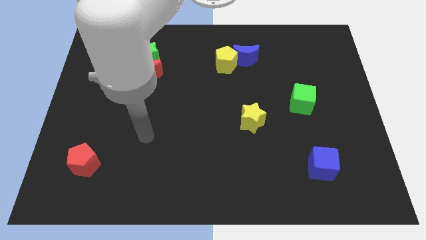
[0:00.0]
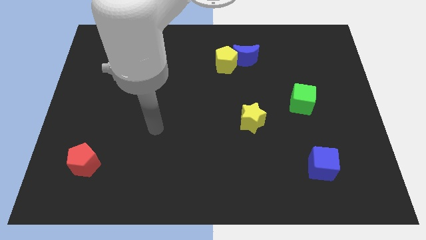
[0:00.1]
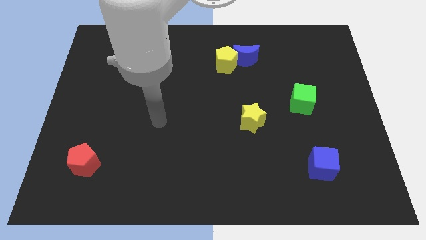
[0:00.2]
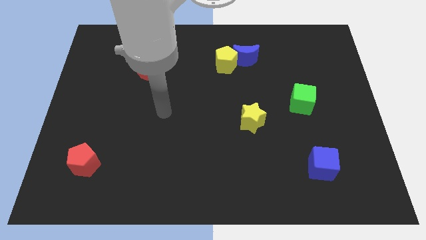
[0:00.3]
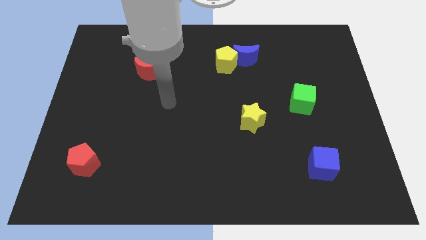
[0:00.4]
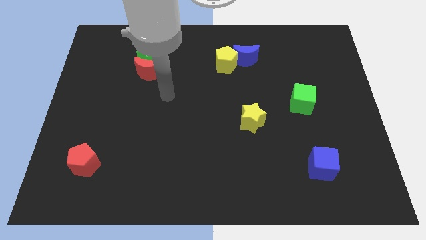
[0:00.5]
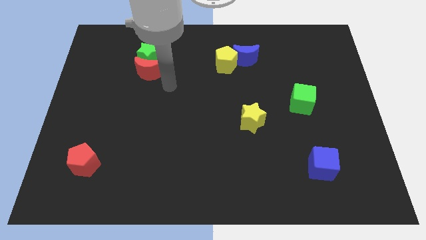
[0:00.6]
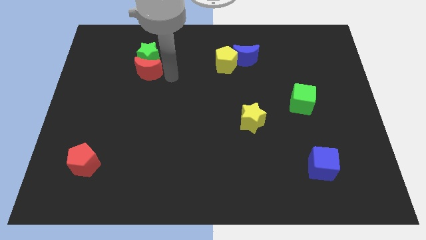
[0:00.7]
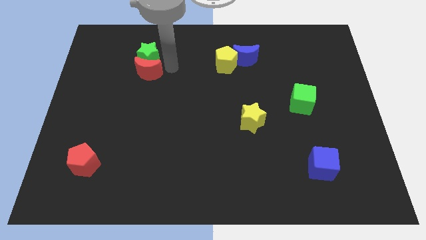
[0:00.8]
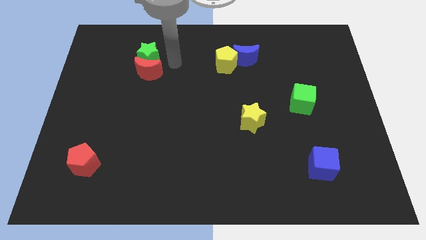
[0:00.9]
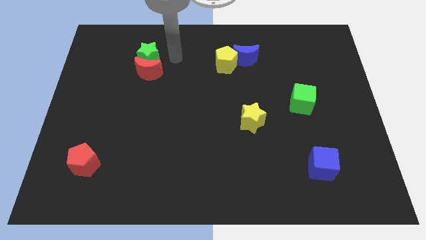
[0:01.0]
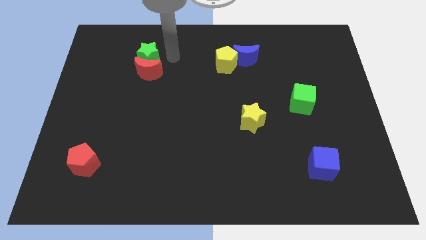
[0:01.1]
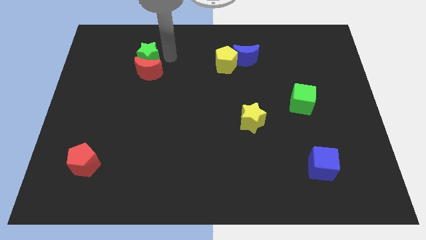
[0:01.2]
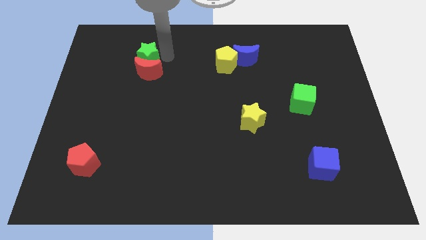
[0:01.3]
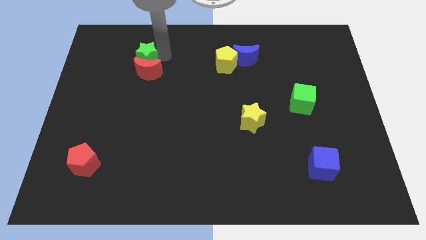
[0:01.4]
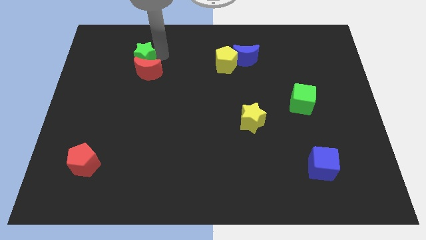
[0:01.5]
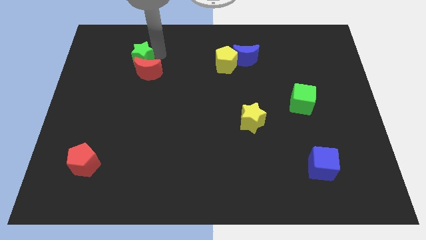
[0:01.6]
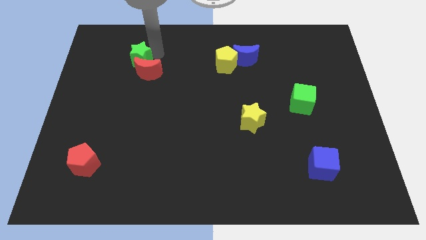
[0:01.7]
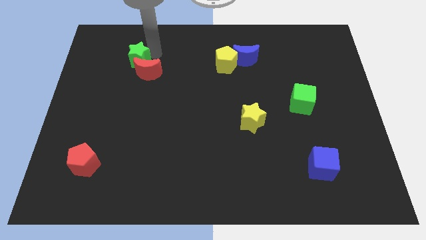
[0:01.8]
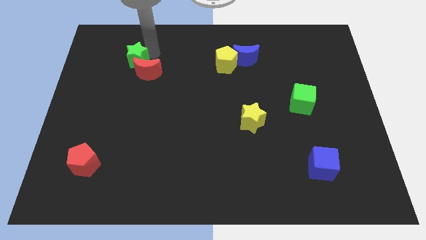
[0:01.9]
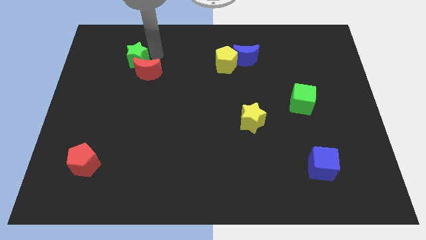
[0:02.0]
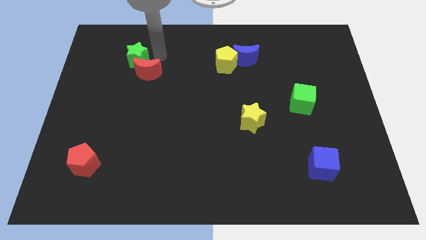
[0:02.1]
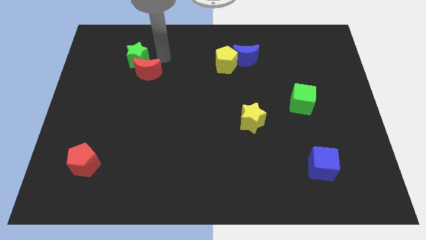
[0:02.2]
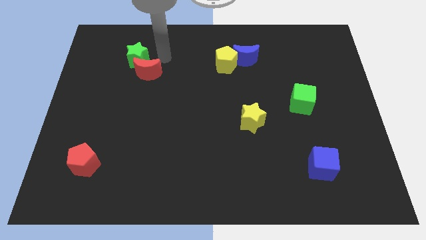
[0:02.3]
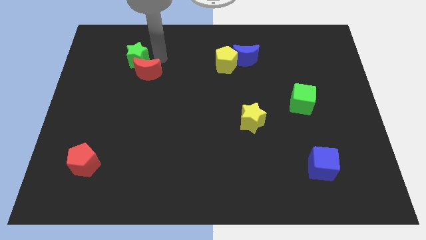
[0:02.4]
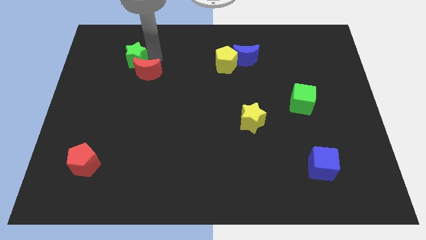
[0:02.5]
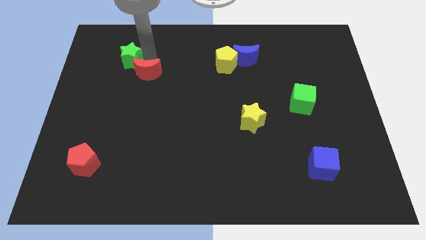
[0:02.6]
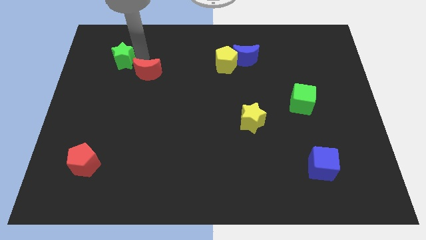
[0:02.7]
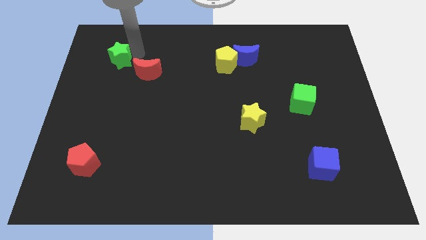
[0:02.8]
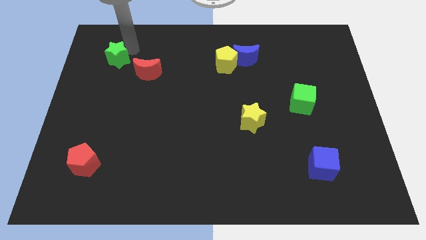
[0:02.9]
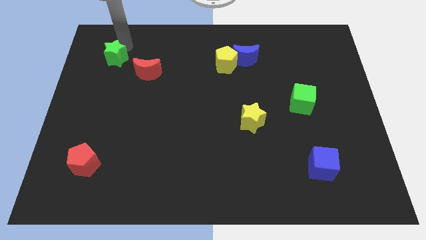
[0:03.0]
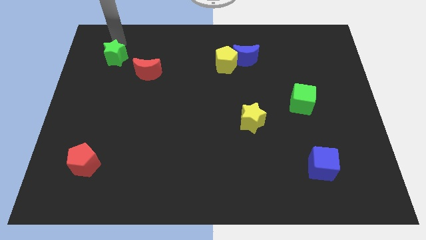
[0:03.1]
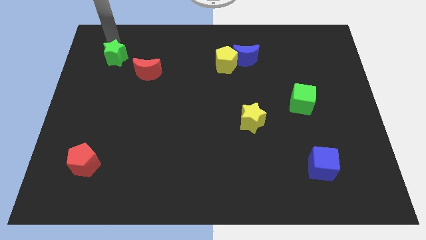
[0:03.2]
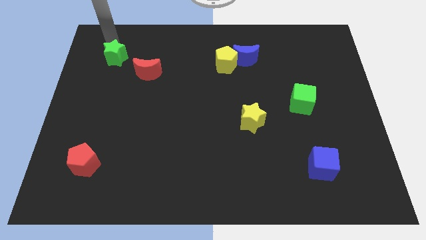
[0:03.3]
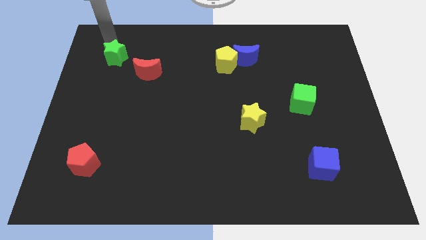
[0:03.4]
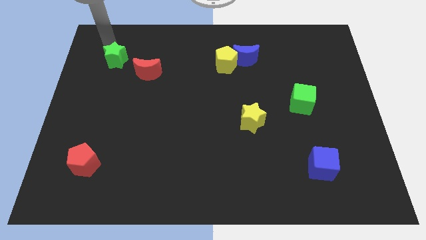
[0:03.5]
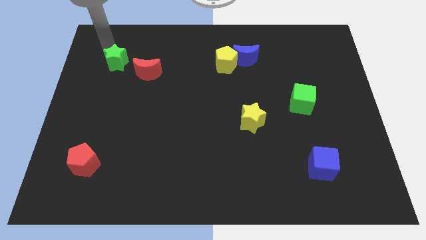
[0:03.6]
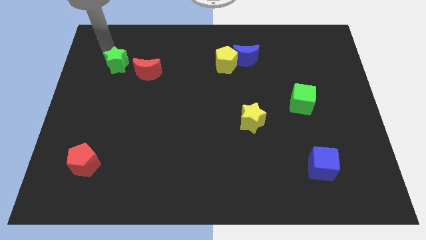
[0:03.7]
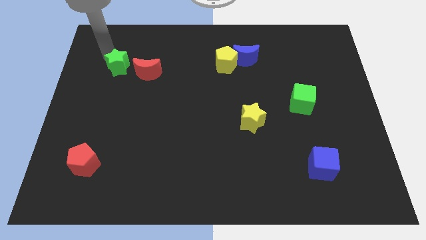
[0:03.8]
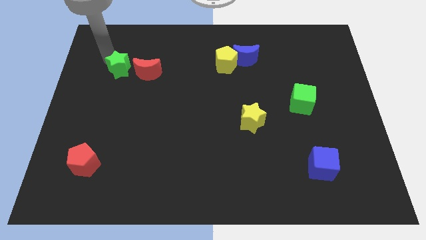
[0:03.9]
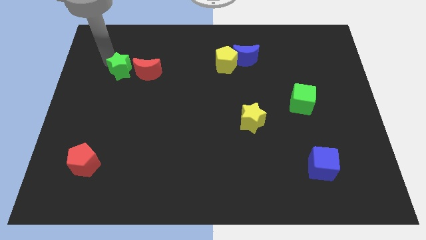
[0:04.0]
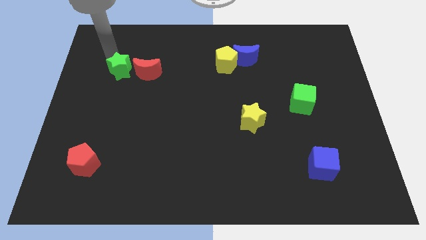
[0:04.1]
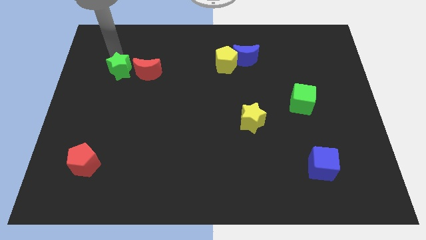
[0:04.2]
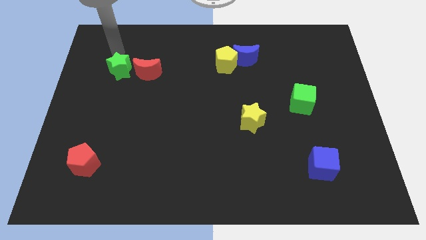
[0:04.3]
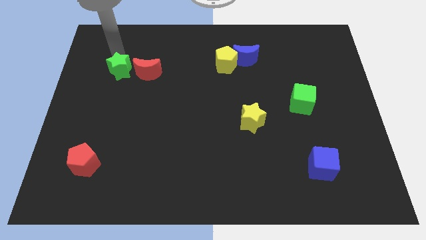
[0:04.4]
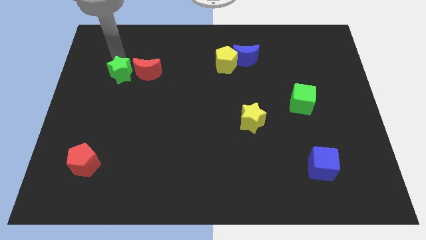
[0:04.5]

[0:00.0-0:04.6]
move the green star to the bottom left side of the red moon

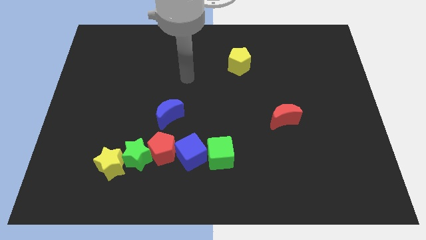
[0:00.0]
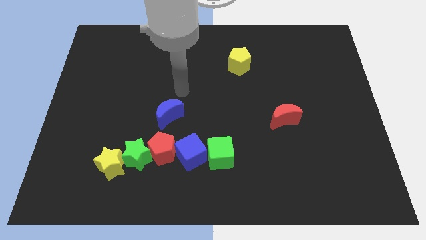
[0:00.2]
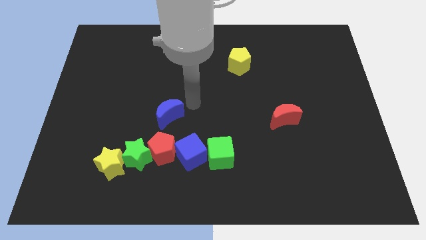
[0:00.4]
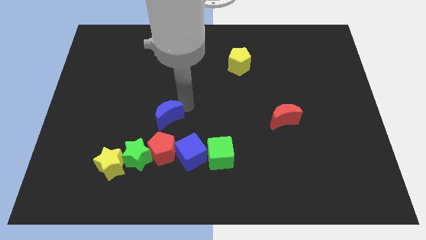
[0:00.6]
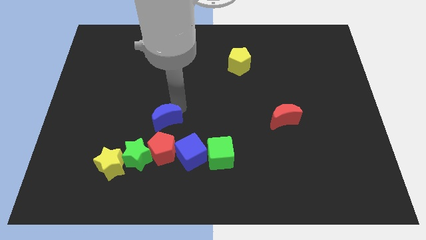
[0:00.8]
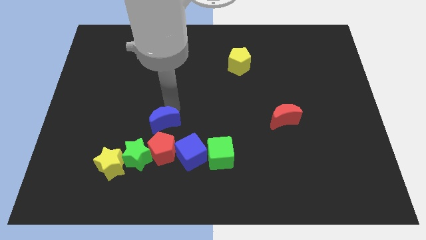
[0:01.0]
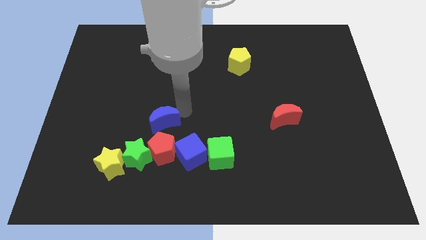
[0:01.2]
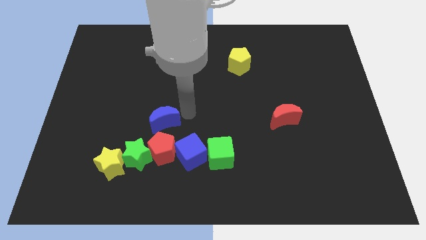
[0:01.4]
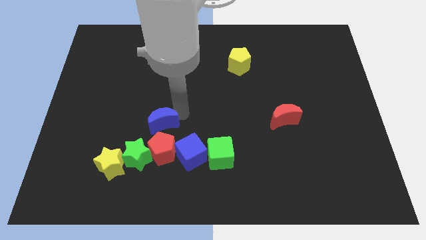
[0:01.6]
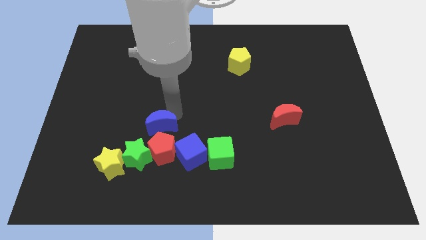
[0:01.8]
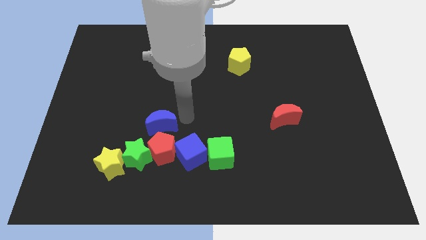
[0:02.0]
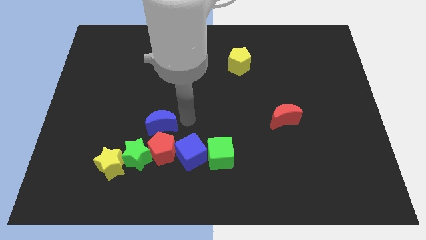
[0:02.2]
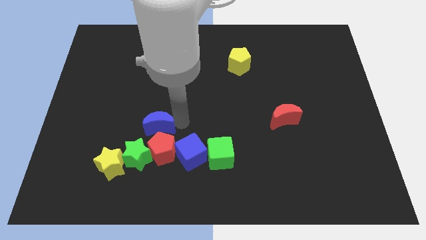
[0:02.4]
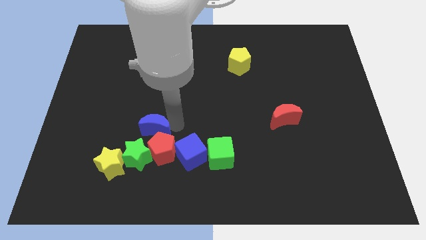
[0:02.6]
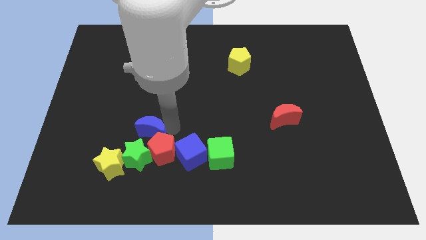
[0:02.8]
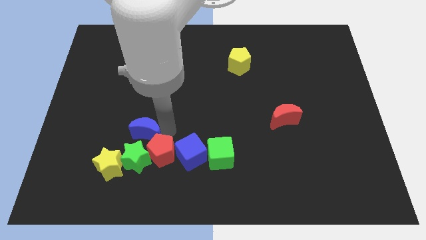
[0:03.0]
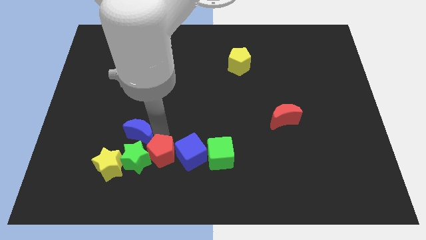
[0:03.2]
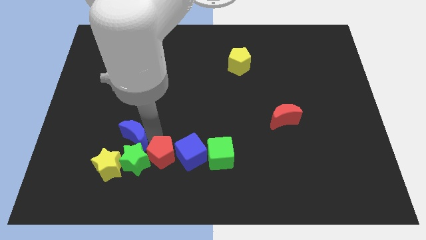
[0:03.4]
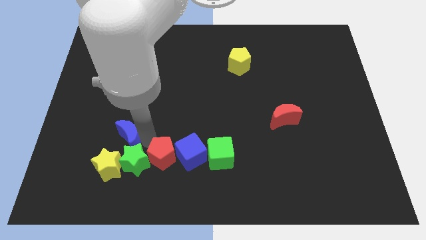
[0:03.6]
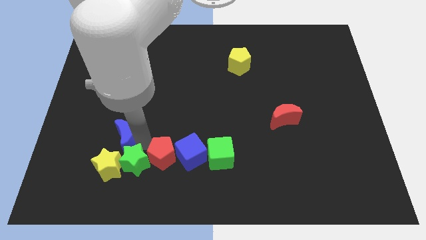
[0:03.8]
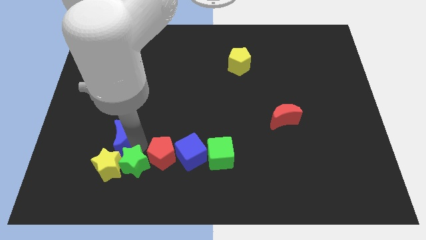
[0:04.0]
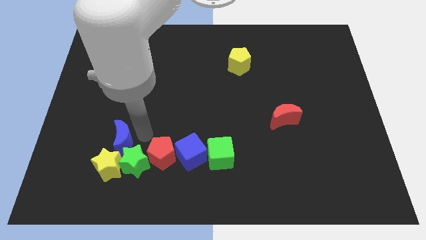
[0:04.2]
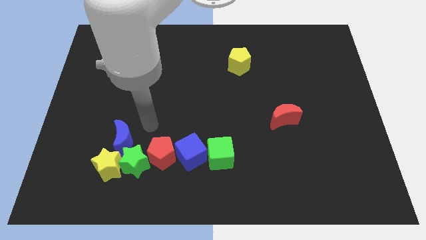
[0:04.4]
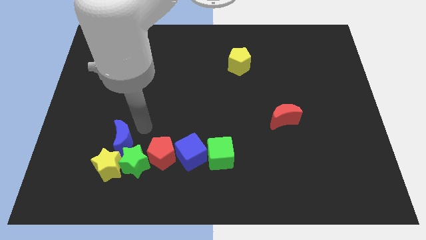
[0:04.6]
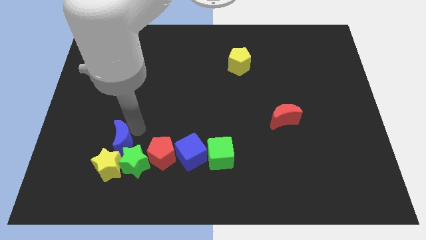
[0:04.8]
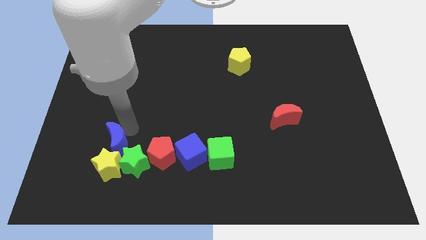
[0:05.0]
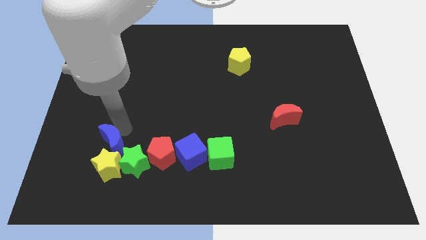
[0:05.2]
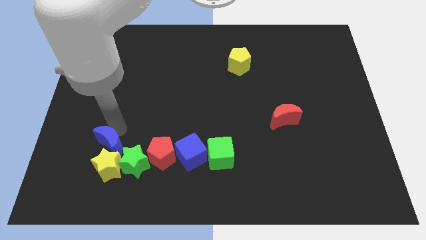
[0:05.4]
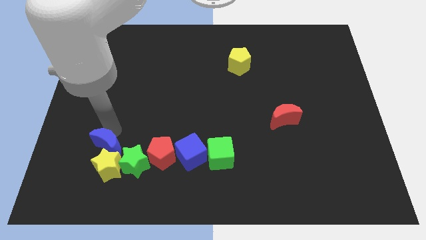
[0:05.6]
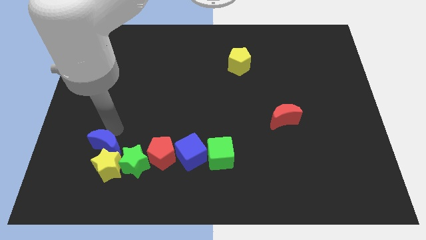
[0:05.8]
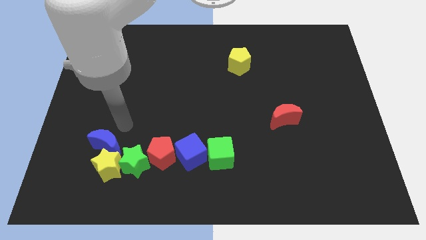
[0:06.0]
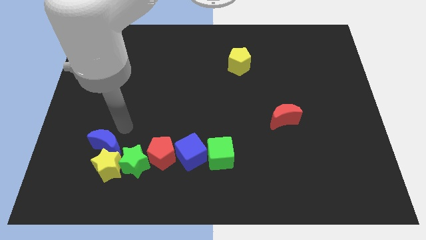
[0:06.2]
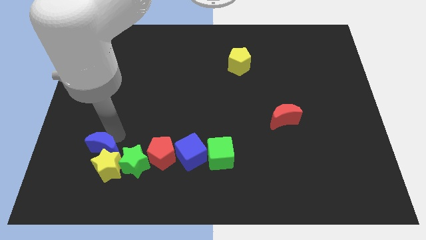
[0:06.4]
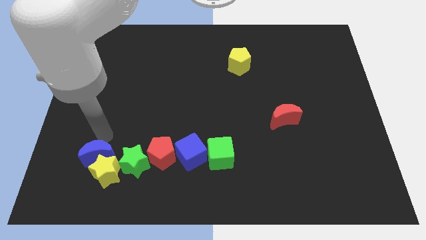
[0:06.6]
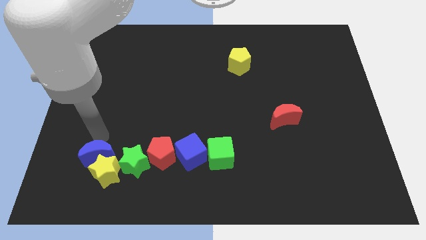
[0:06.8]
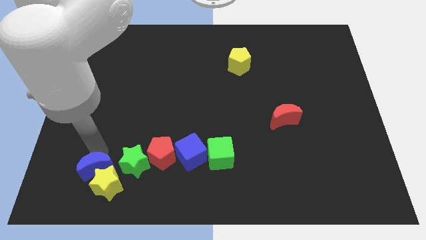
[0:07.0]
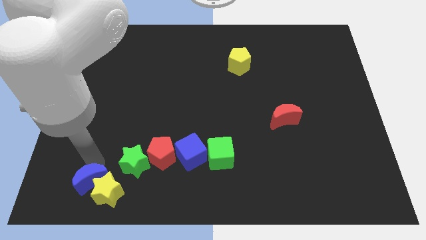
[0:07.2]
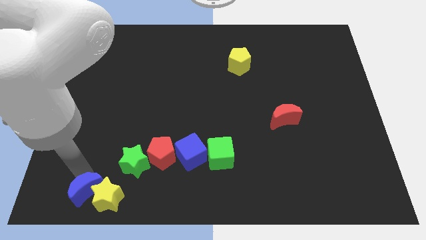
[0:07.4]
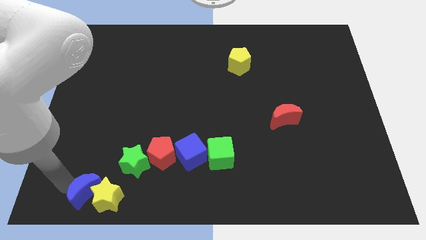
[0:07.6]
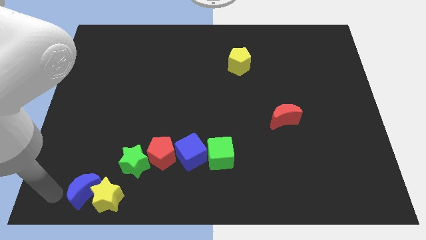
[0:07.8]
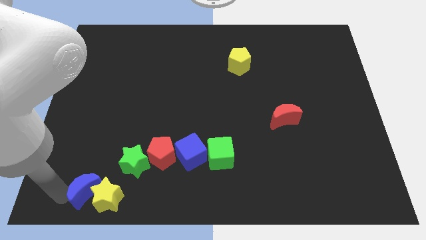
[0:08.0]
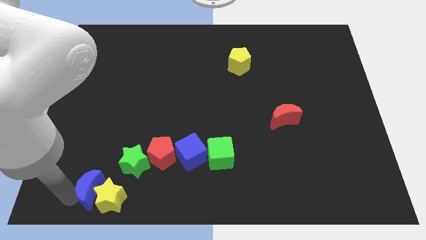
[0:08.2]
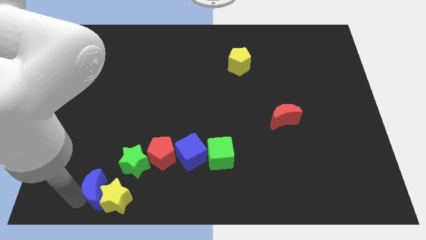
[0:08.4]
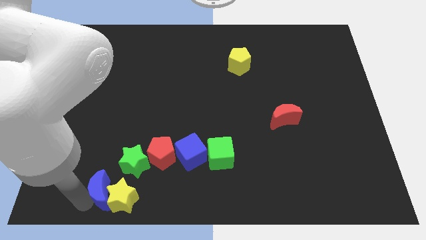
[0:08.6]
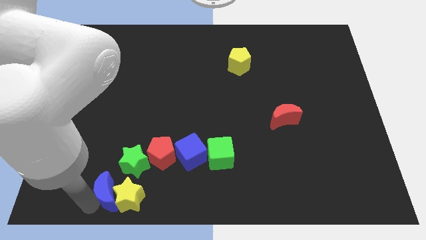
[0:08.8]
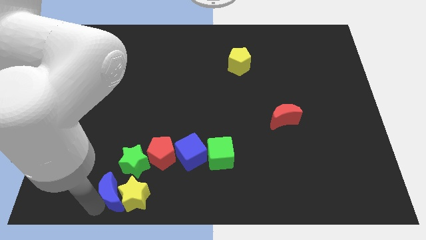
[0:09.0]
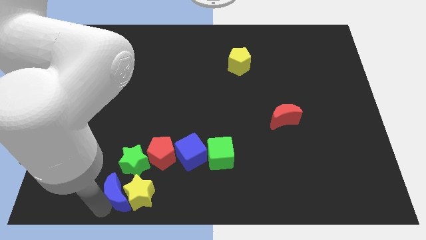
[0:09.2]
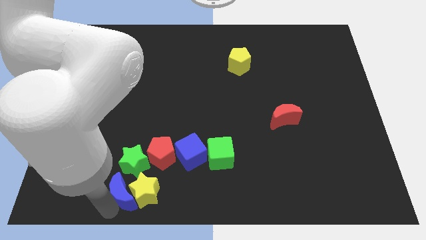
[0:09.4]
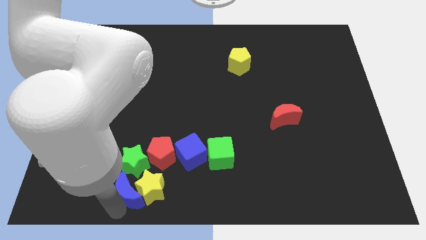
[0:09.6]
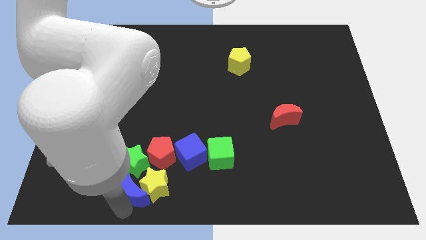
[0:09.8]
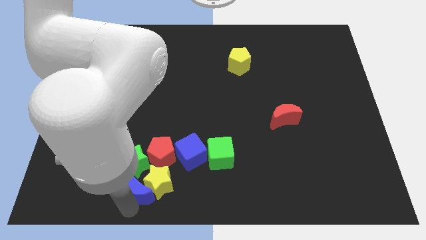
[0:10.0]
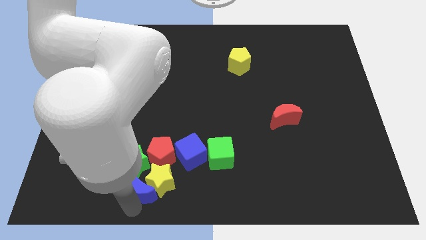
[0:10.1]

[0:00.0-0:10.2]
move the blue moon to the bottom left side of the blue cube
